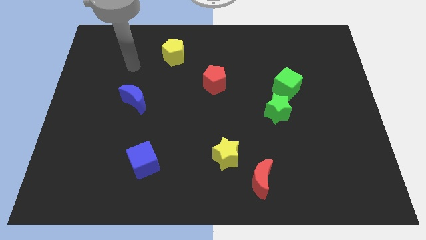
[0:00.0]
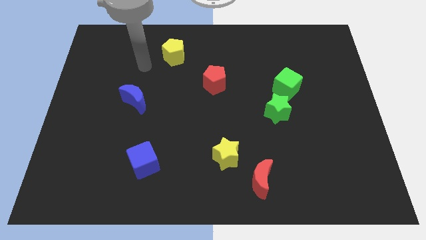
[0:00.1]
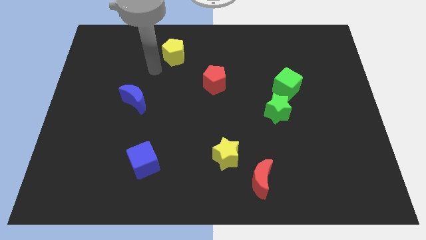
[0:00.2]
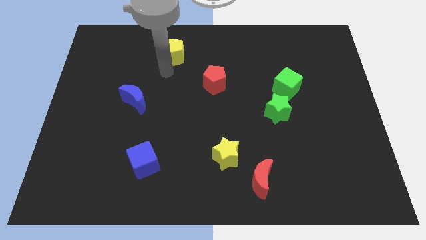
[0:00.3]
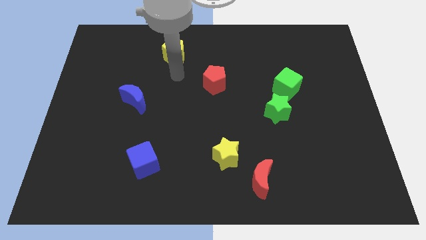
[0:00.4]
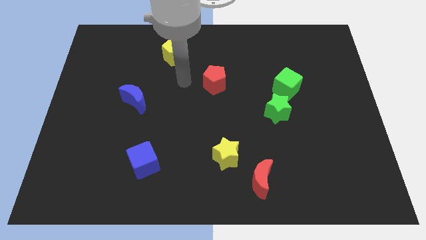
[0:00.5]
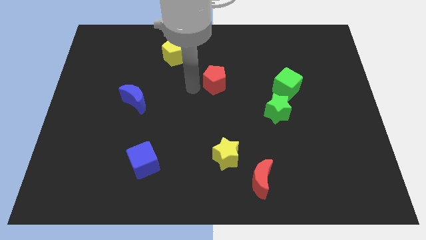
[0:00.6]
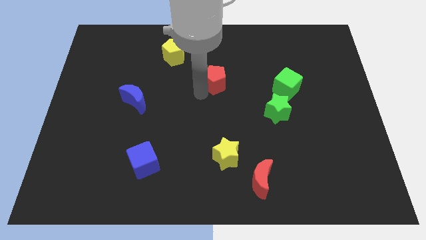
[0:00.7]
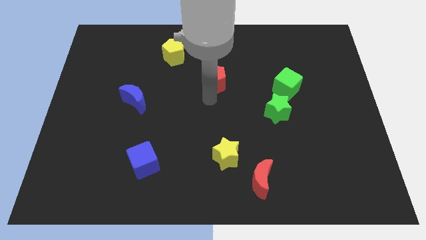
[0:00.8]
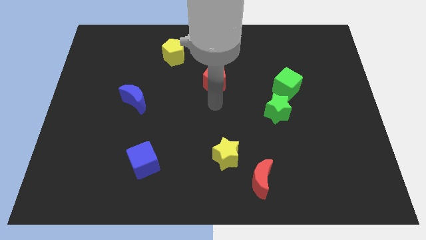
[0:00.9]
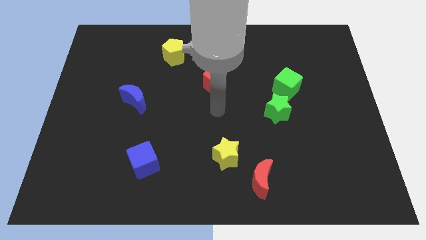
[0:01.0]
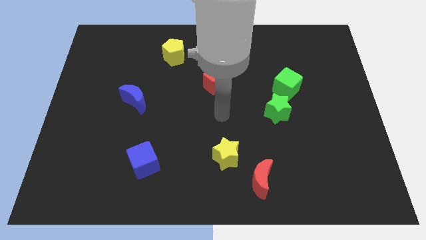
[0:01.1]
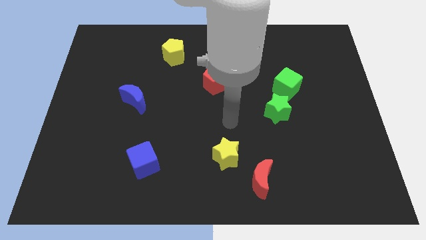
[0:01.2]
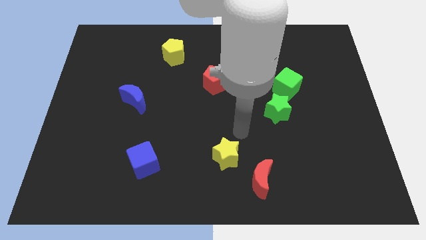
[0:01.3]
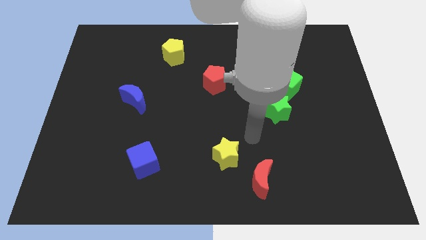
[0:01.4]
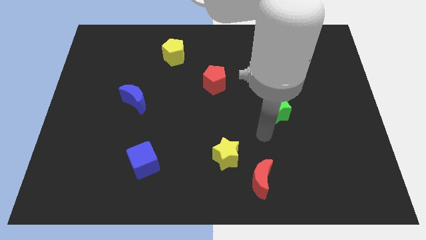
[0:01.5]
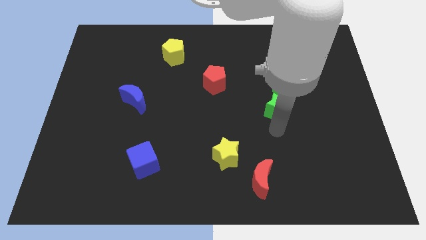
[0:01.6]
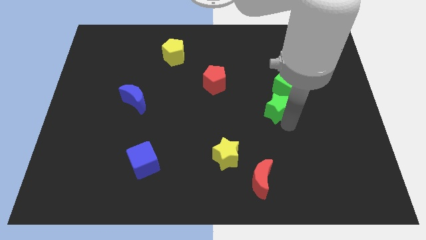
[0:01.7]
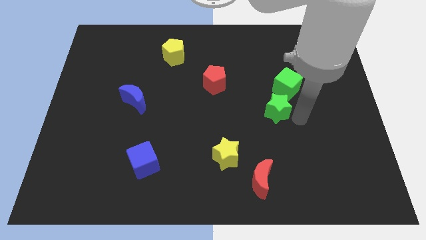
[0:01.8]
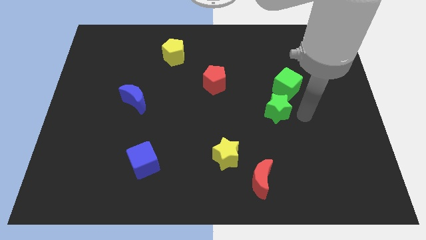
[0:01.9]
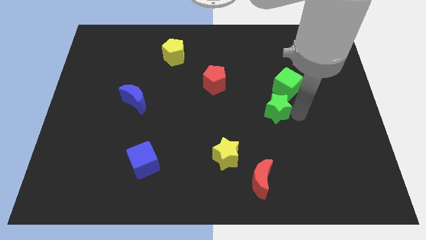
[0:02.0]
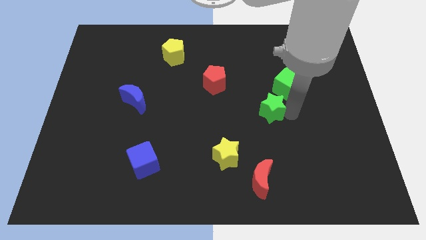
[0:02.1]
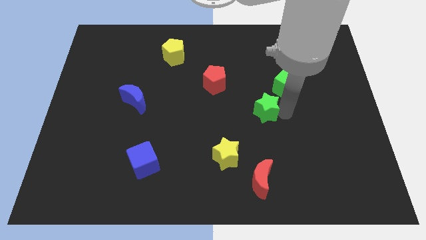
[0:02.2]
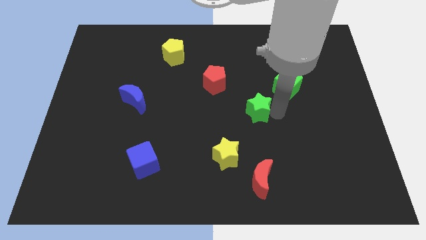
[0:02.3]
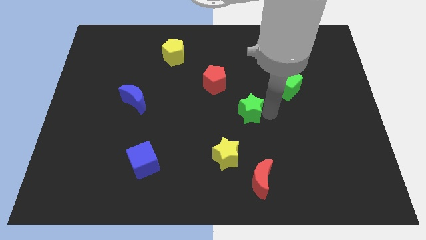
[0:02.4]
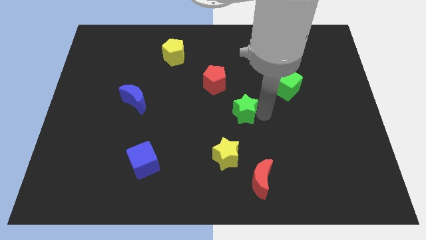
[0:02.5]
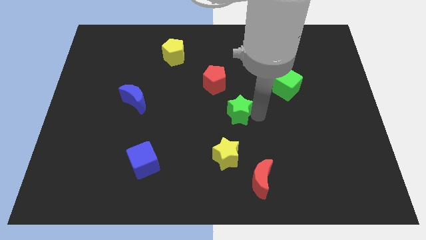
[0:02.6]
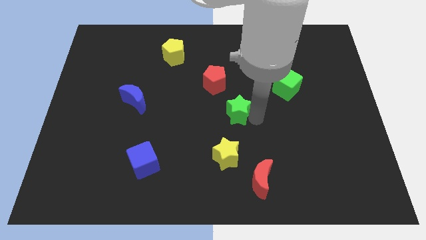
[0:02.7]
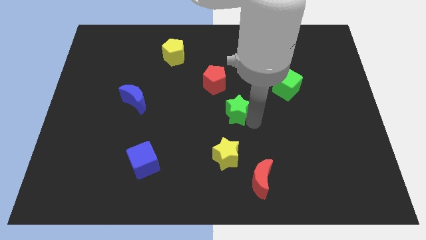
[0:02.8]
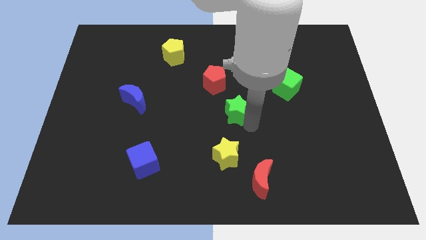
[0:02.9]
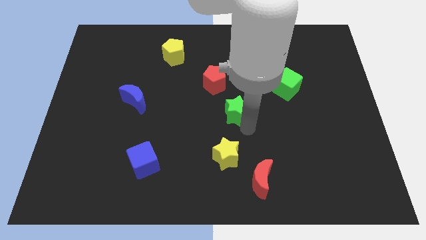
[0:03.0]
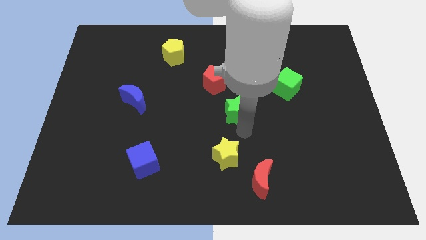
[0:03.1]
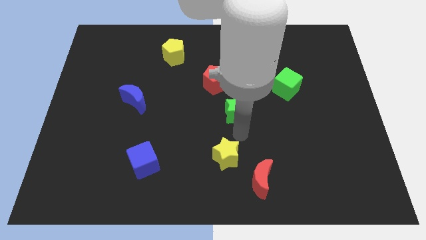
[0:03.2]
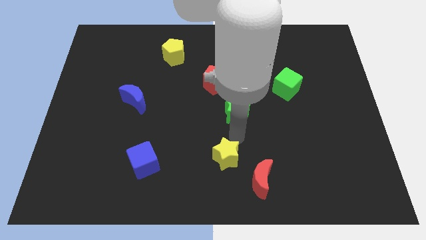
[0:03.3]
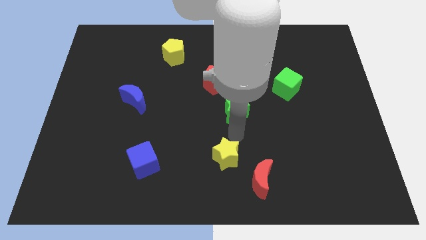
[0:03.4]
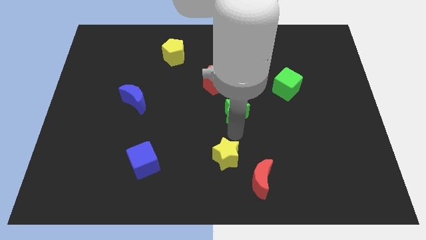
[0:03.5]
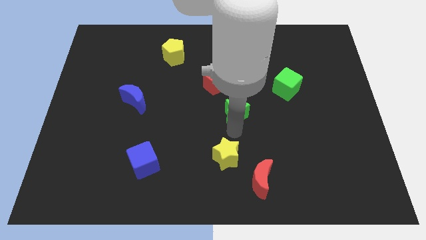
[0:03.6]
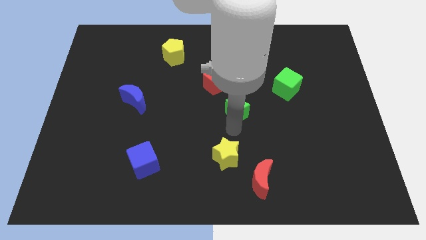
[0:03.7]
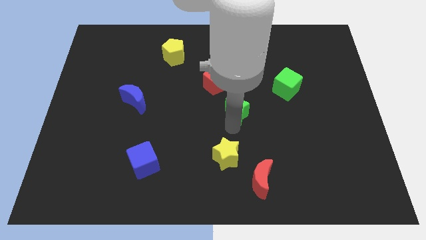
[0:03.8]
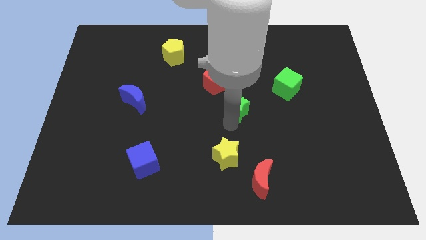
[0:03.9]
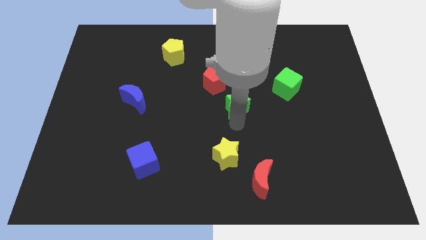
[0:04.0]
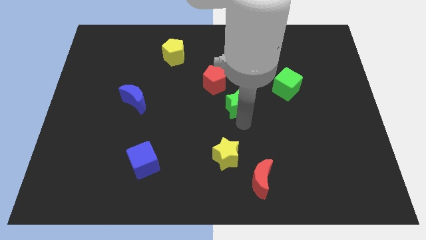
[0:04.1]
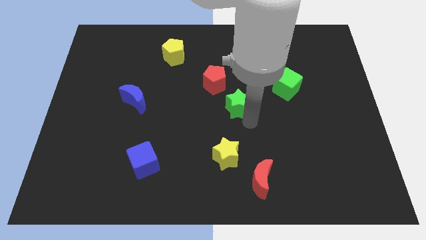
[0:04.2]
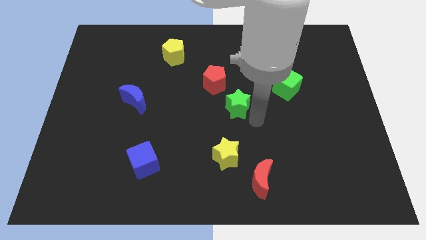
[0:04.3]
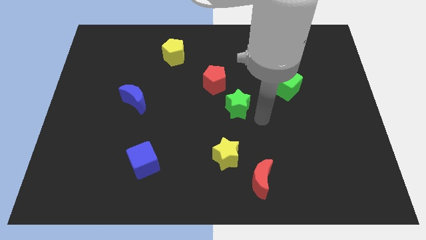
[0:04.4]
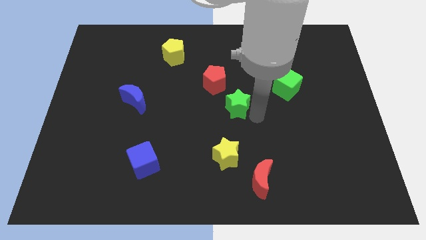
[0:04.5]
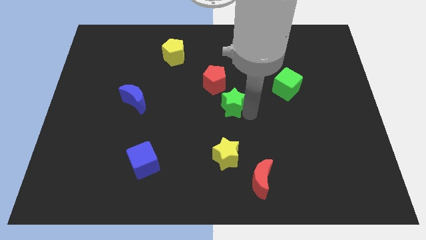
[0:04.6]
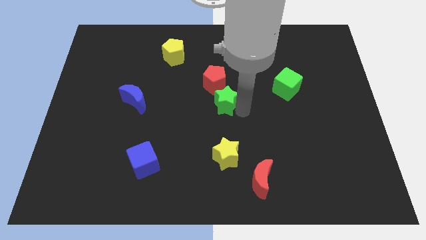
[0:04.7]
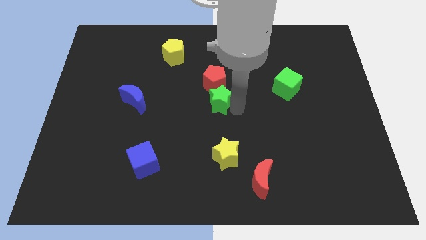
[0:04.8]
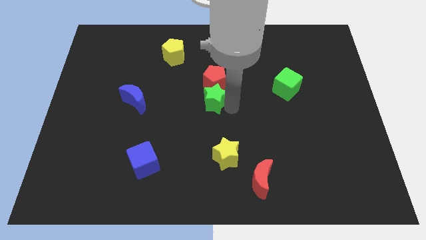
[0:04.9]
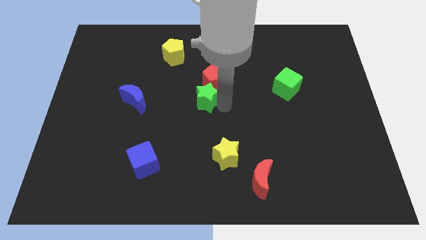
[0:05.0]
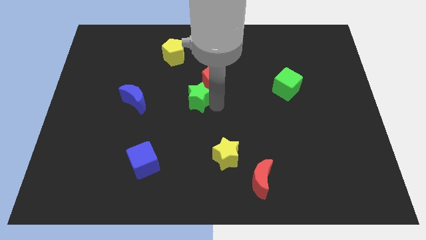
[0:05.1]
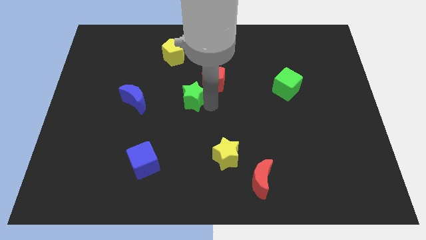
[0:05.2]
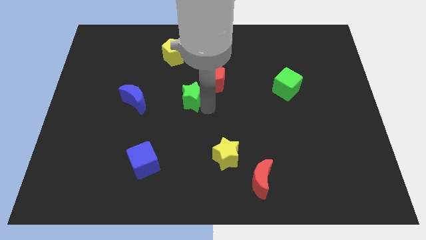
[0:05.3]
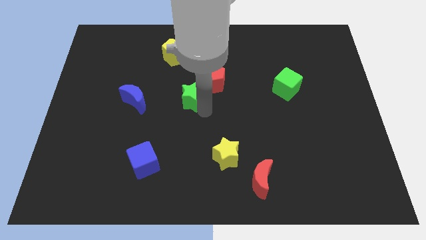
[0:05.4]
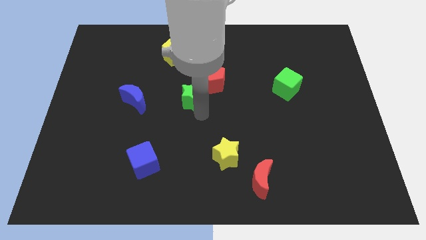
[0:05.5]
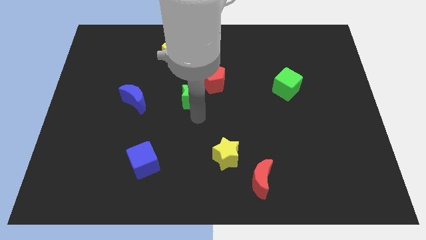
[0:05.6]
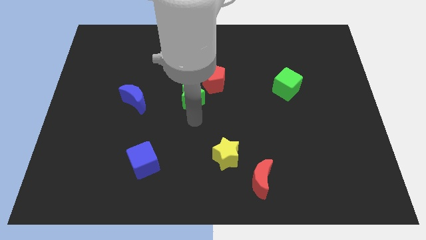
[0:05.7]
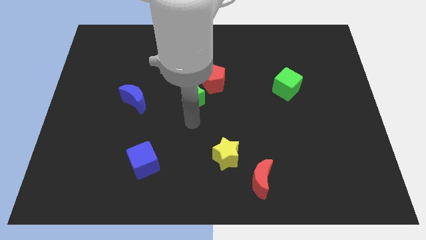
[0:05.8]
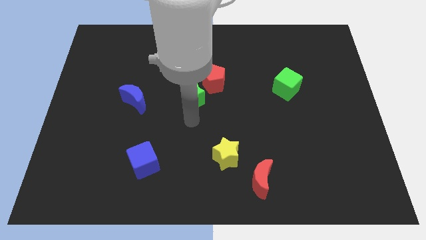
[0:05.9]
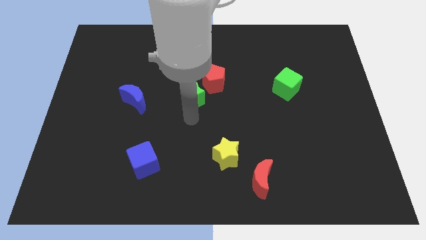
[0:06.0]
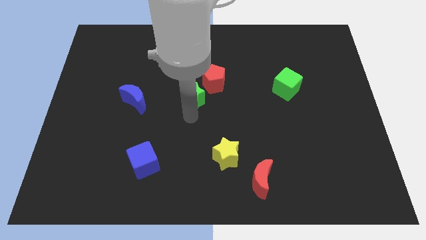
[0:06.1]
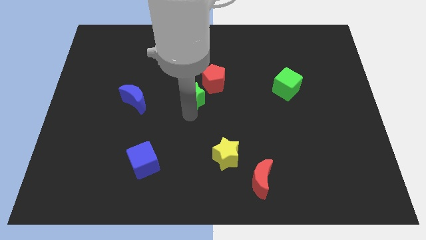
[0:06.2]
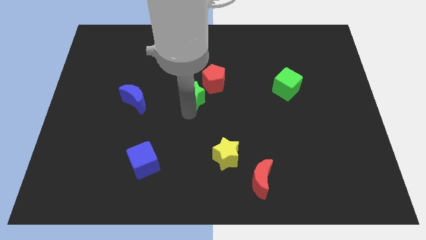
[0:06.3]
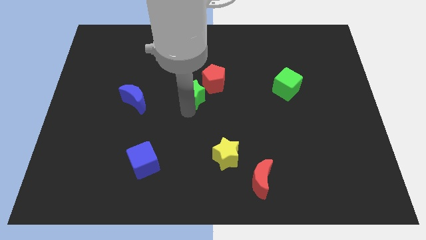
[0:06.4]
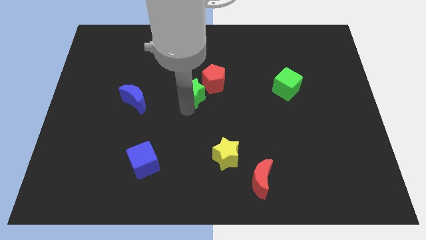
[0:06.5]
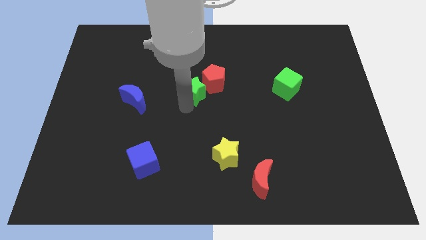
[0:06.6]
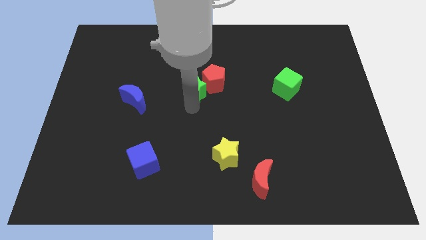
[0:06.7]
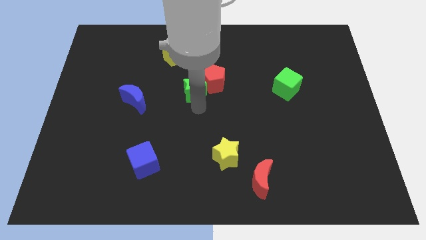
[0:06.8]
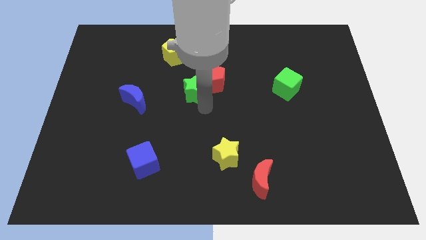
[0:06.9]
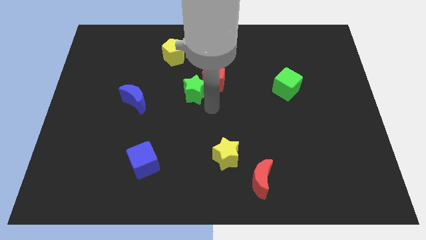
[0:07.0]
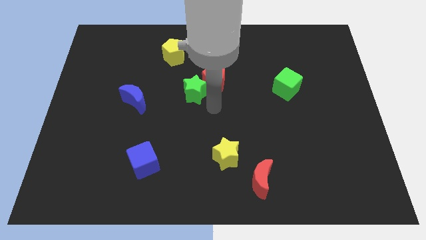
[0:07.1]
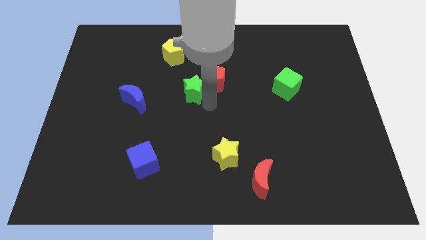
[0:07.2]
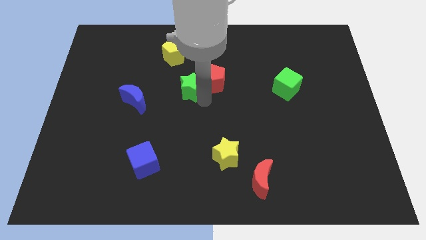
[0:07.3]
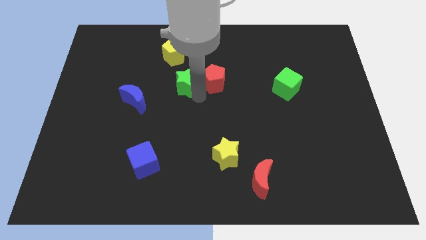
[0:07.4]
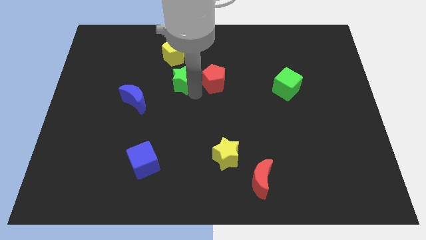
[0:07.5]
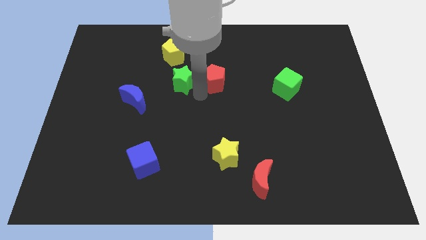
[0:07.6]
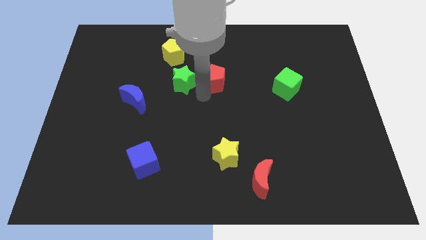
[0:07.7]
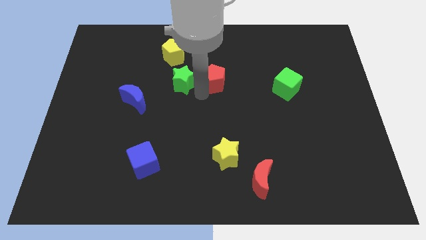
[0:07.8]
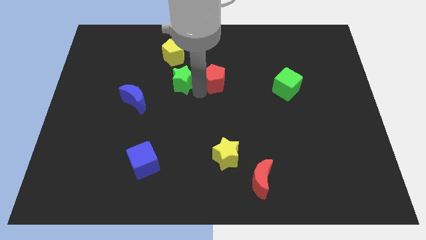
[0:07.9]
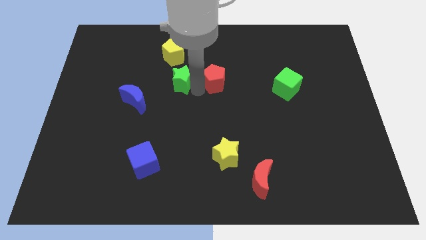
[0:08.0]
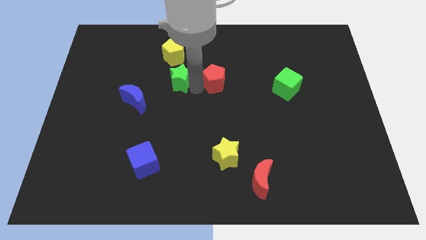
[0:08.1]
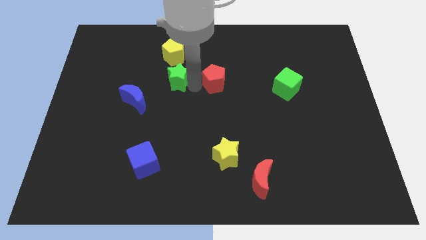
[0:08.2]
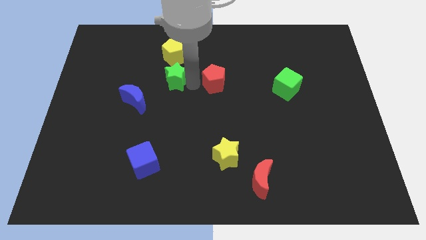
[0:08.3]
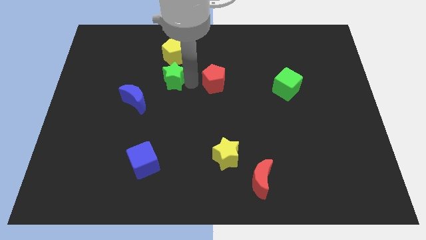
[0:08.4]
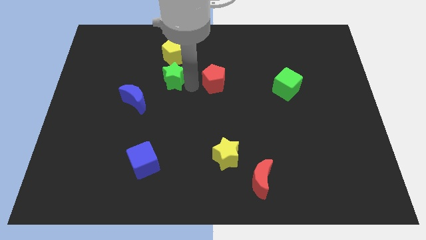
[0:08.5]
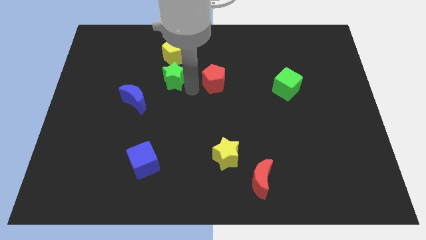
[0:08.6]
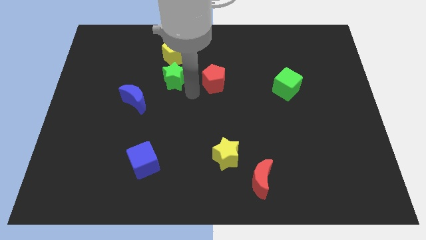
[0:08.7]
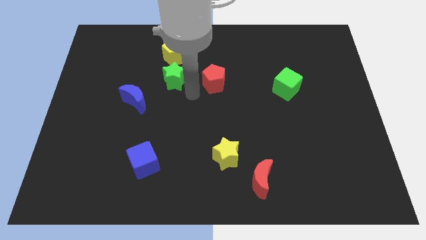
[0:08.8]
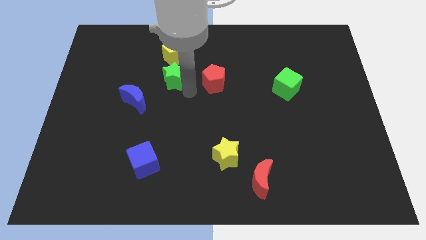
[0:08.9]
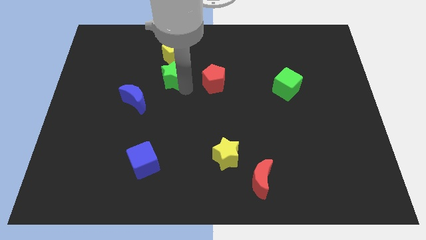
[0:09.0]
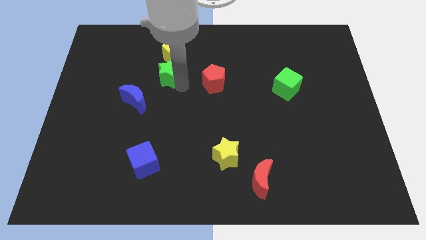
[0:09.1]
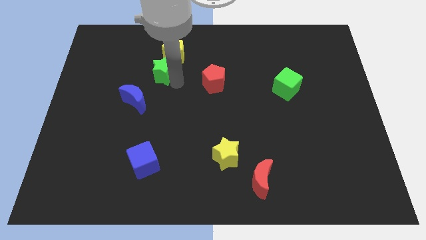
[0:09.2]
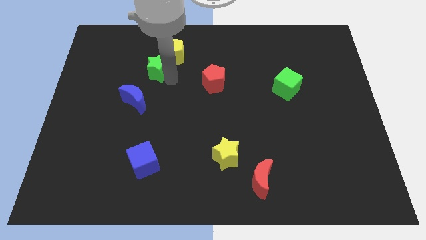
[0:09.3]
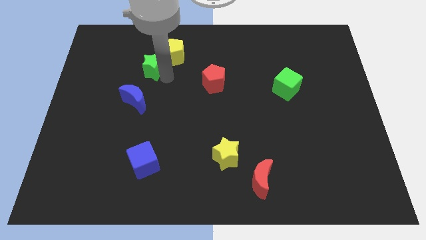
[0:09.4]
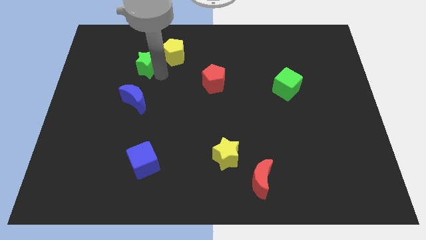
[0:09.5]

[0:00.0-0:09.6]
move the green star to the left of the yellow pentagon
